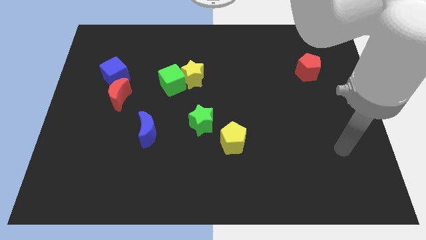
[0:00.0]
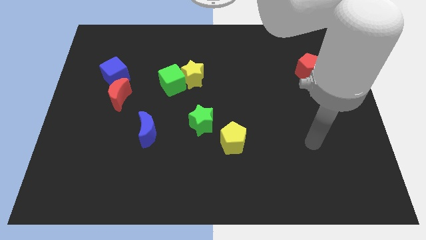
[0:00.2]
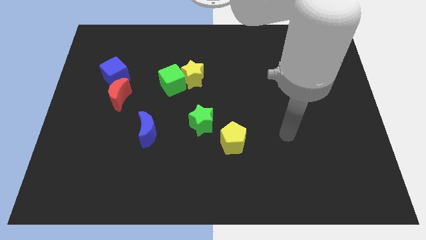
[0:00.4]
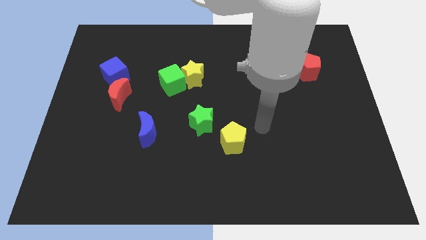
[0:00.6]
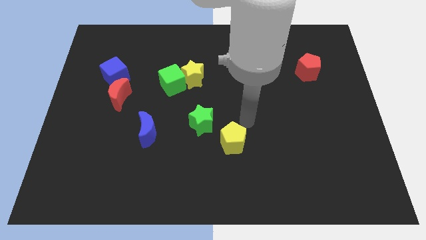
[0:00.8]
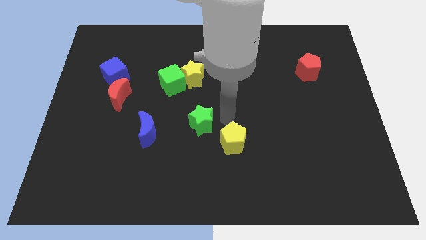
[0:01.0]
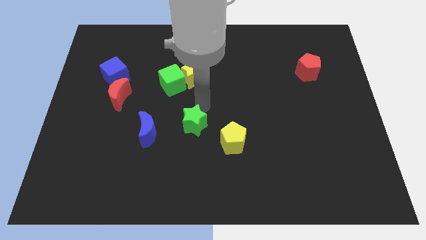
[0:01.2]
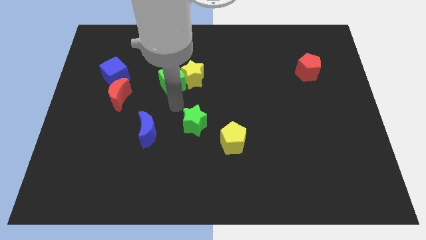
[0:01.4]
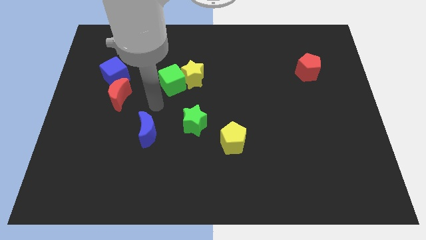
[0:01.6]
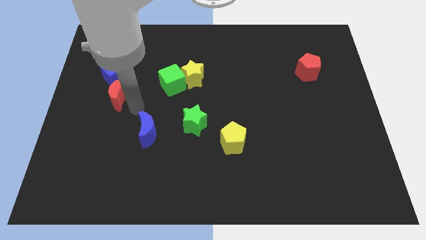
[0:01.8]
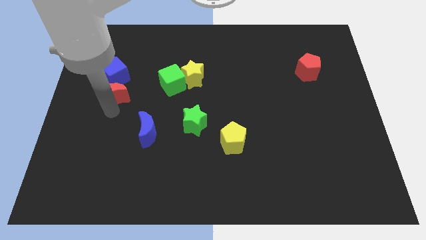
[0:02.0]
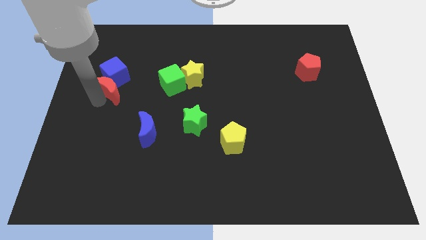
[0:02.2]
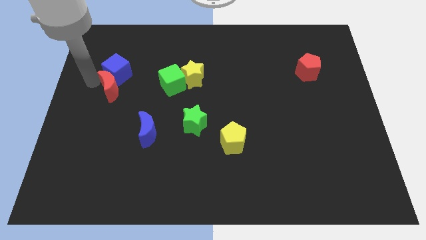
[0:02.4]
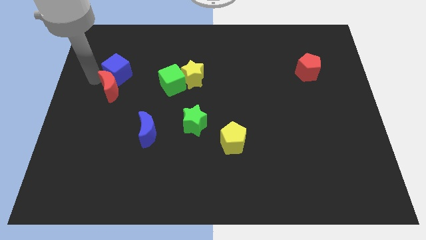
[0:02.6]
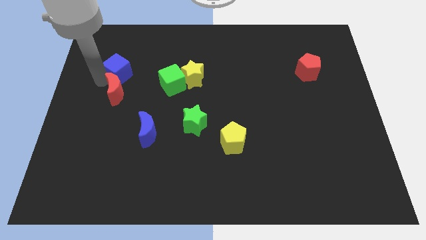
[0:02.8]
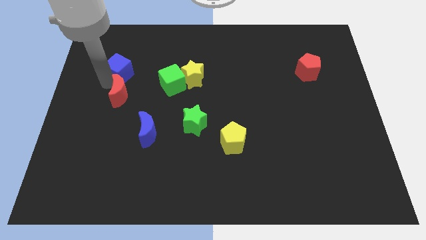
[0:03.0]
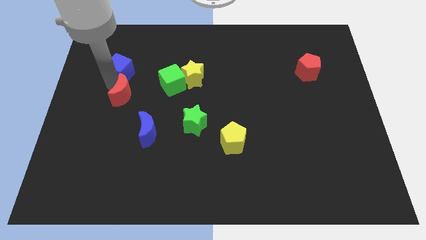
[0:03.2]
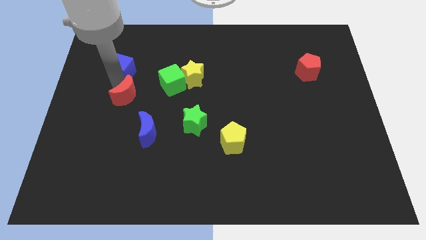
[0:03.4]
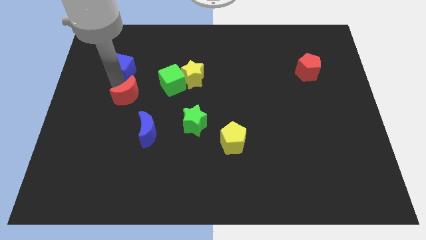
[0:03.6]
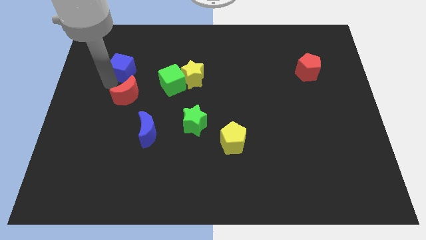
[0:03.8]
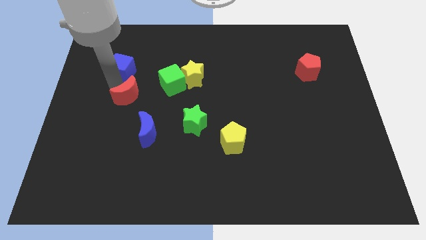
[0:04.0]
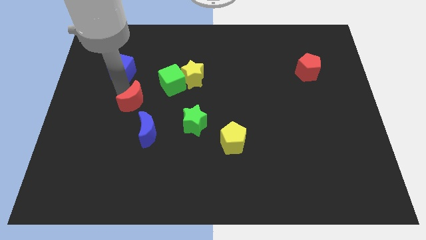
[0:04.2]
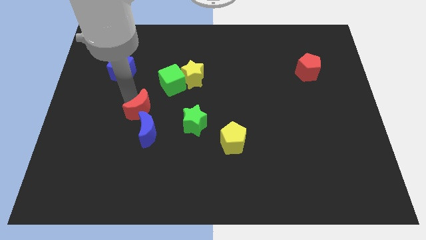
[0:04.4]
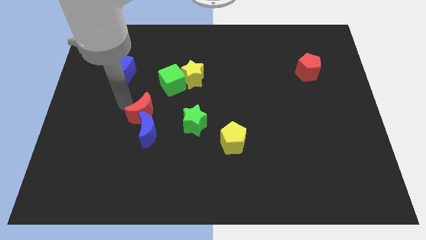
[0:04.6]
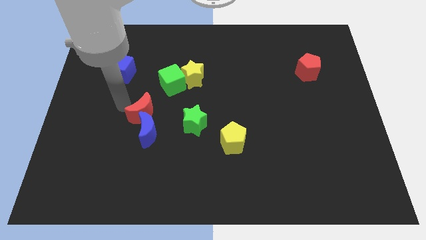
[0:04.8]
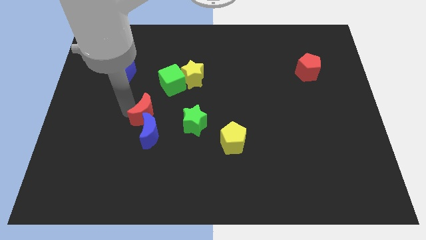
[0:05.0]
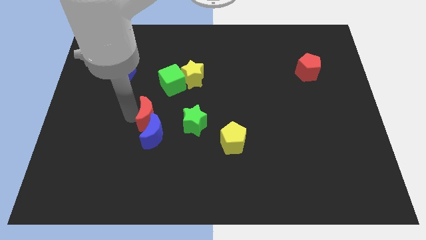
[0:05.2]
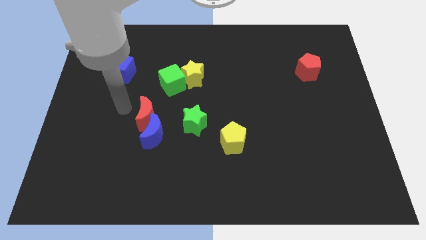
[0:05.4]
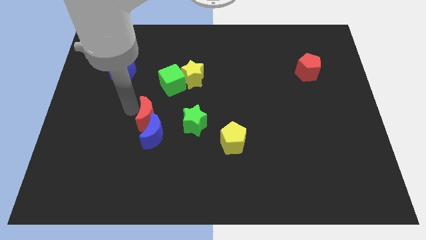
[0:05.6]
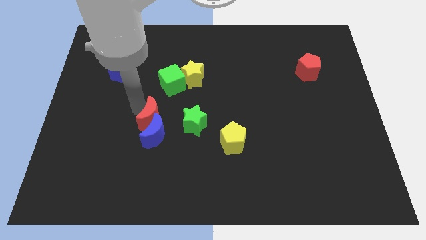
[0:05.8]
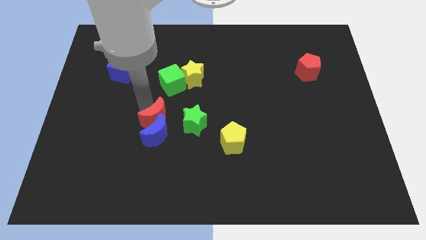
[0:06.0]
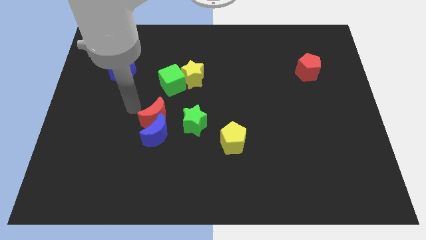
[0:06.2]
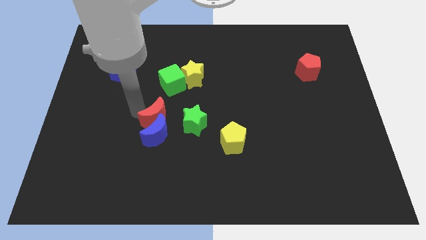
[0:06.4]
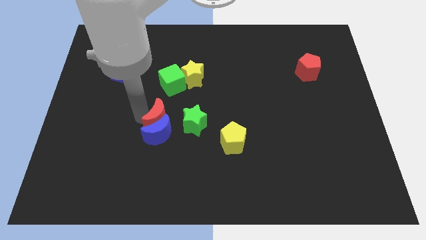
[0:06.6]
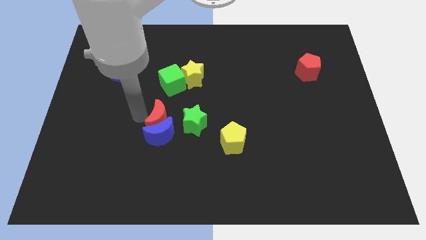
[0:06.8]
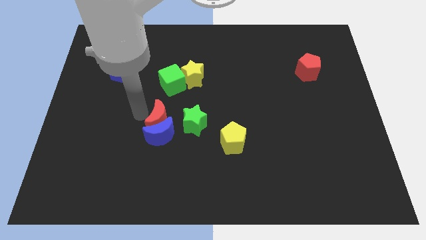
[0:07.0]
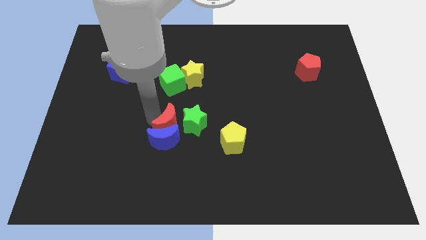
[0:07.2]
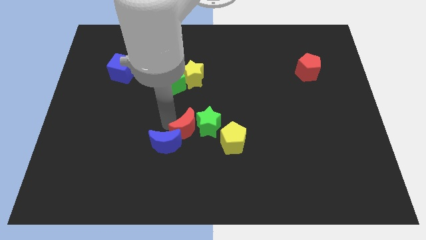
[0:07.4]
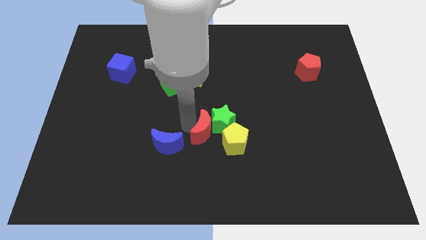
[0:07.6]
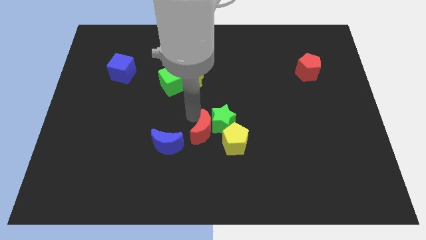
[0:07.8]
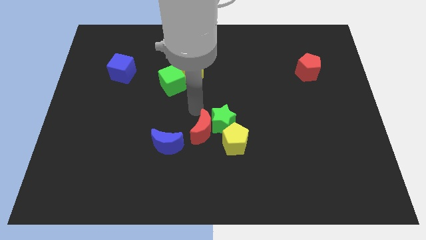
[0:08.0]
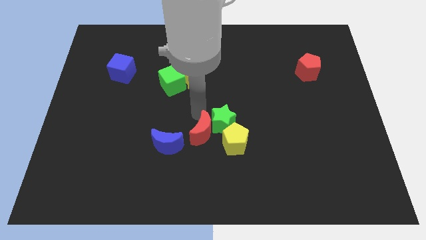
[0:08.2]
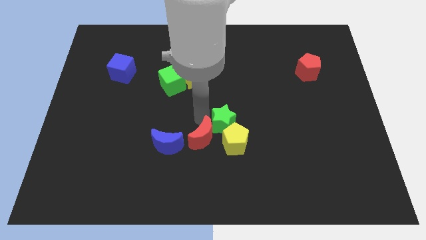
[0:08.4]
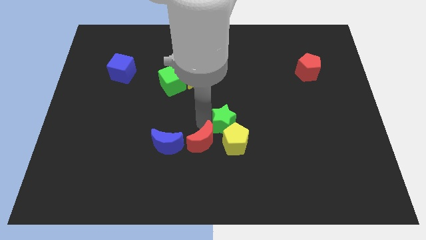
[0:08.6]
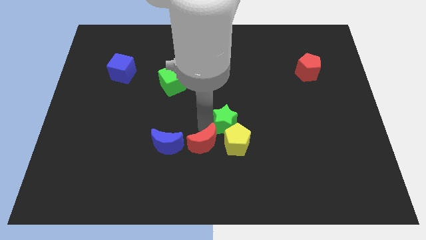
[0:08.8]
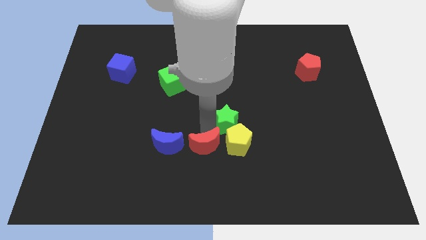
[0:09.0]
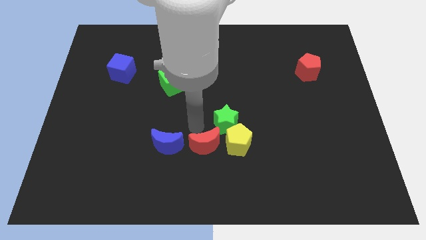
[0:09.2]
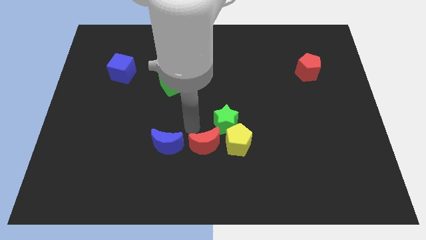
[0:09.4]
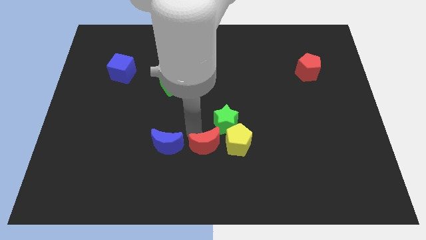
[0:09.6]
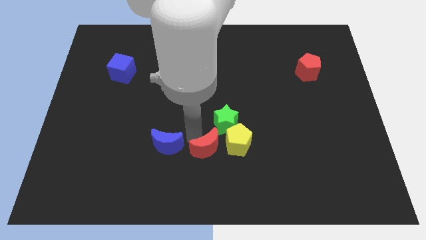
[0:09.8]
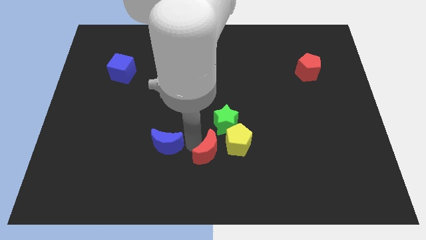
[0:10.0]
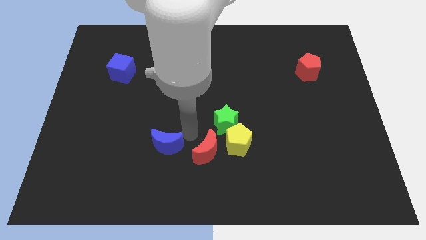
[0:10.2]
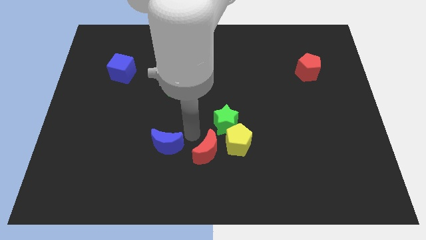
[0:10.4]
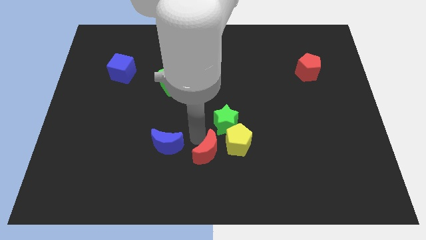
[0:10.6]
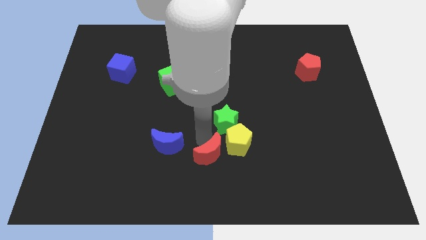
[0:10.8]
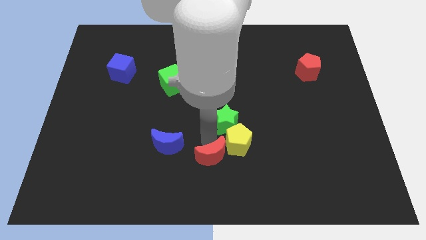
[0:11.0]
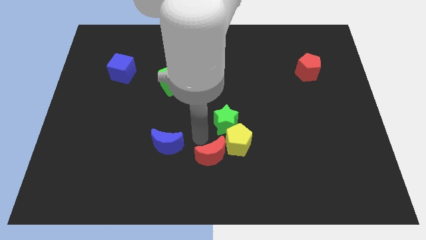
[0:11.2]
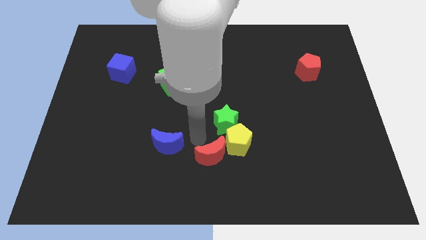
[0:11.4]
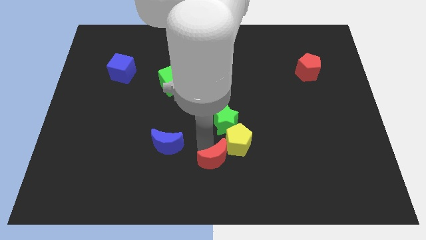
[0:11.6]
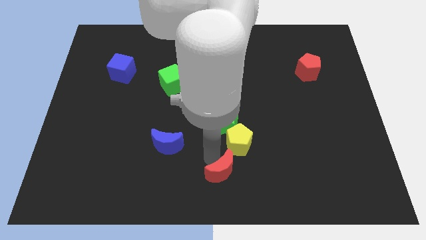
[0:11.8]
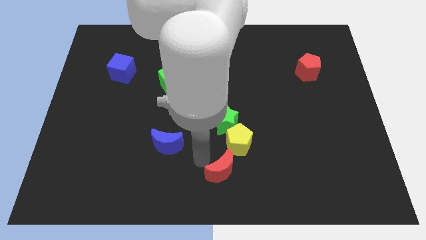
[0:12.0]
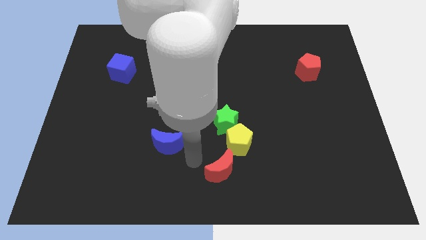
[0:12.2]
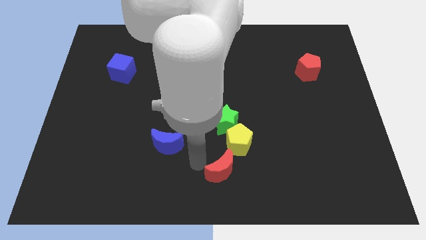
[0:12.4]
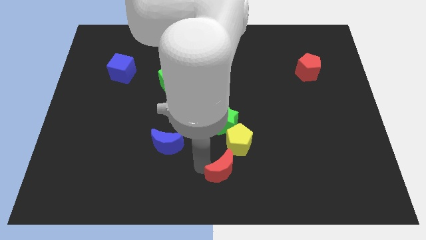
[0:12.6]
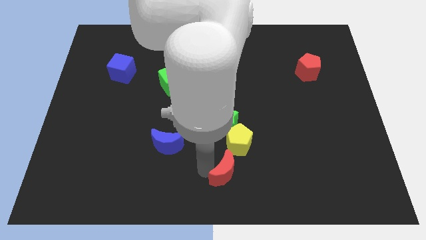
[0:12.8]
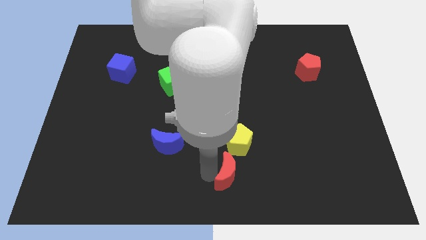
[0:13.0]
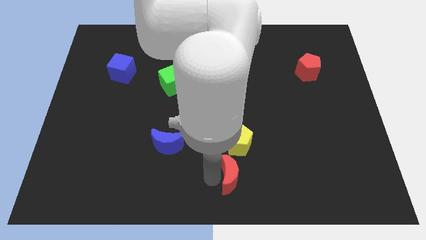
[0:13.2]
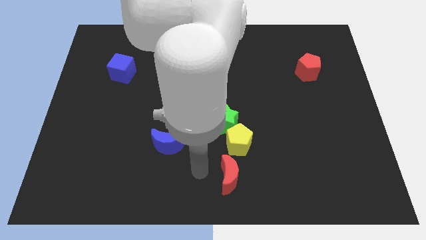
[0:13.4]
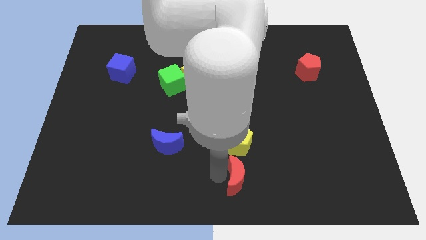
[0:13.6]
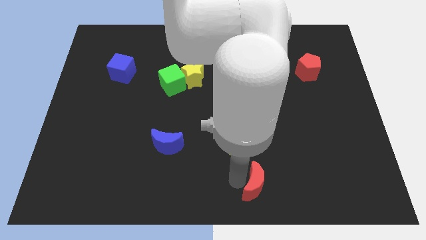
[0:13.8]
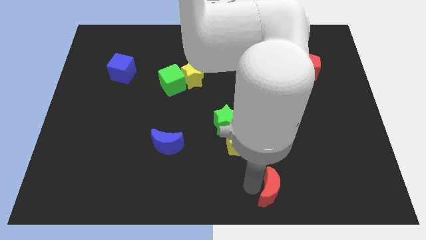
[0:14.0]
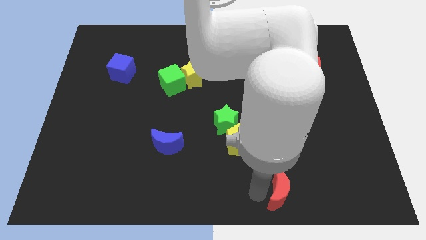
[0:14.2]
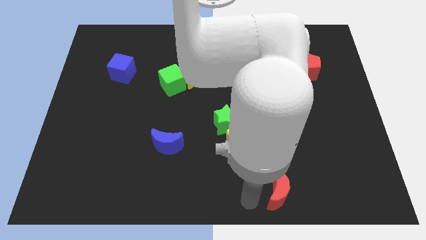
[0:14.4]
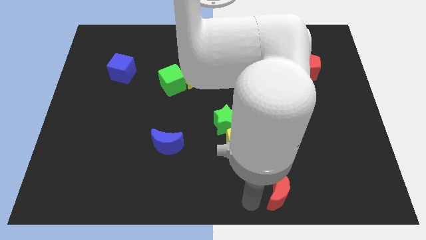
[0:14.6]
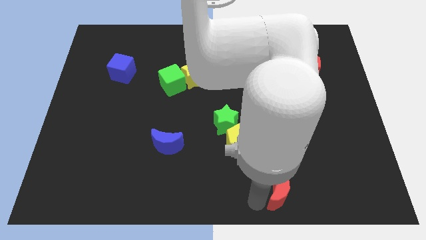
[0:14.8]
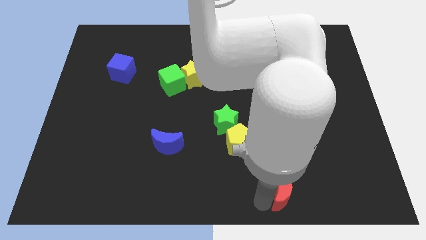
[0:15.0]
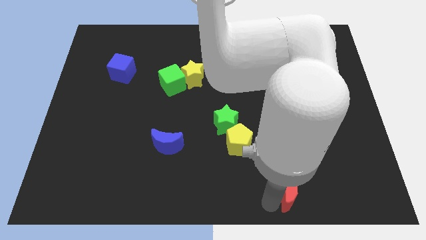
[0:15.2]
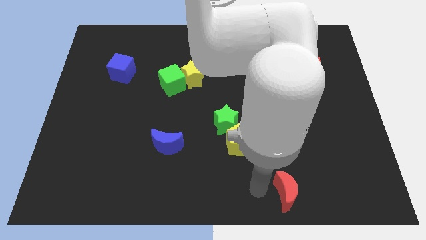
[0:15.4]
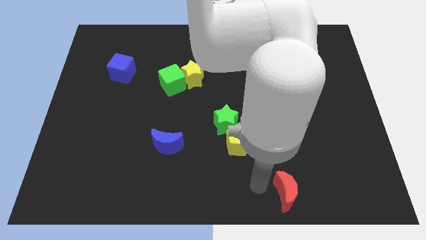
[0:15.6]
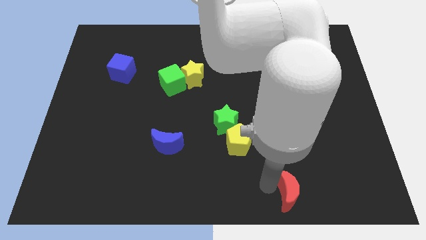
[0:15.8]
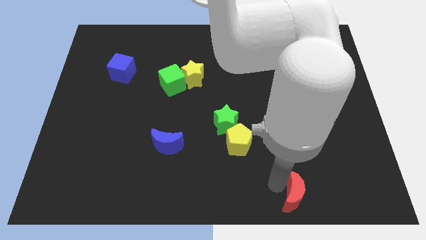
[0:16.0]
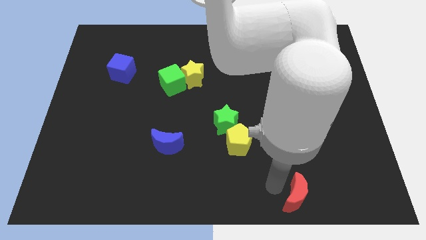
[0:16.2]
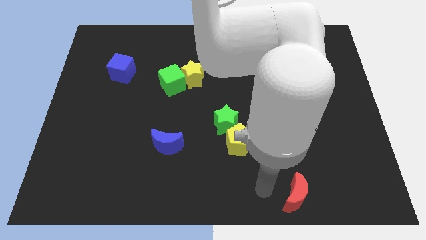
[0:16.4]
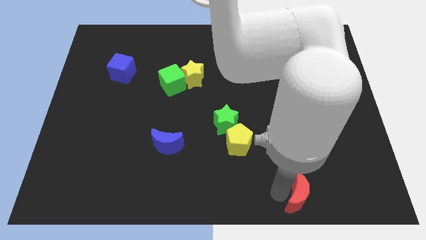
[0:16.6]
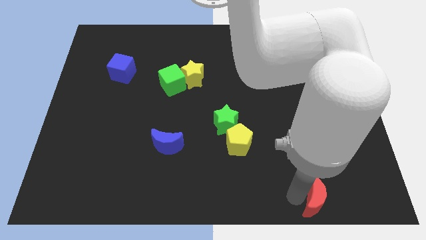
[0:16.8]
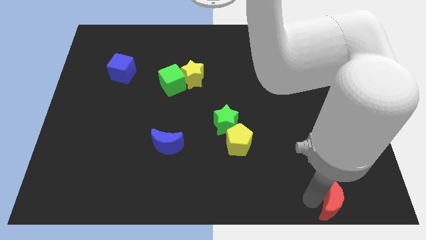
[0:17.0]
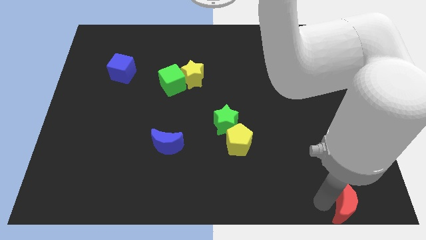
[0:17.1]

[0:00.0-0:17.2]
put the red moon to the bottom right of the board
